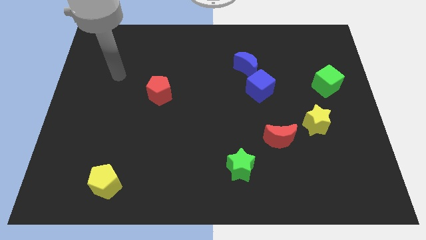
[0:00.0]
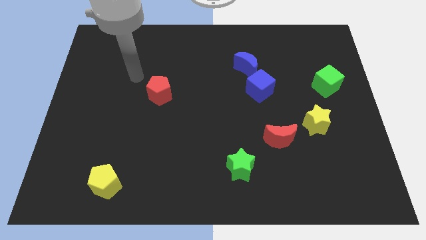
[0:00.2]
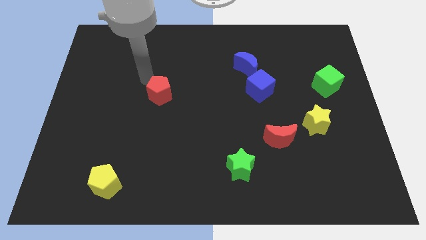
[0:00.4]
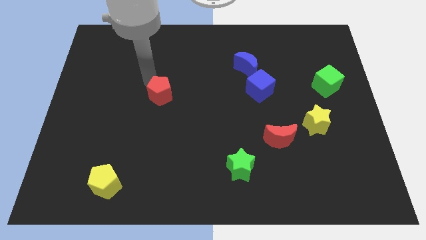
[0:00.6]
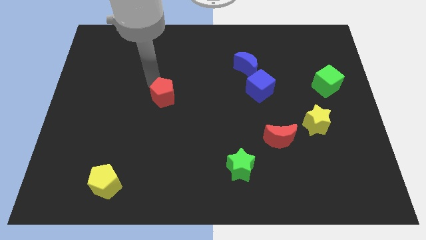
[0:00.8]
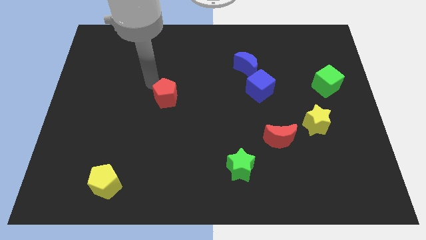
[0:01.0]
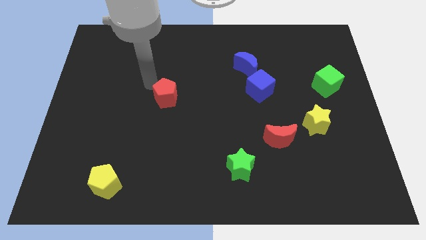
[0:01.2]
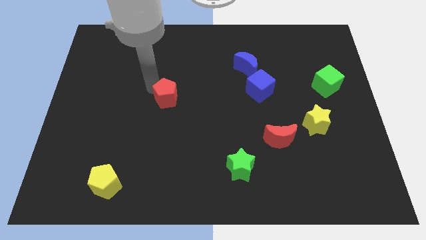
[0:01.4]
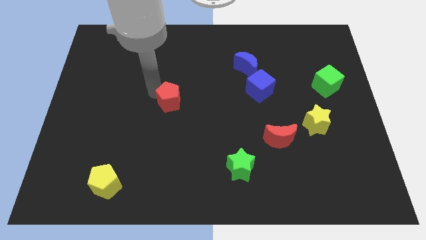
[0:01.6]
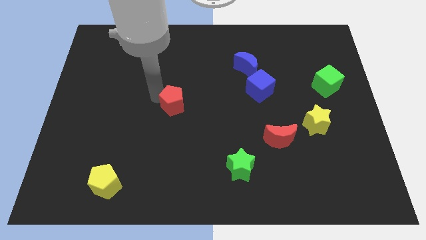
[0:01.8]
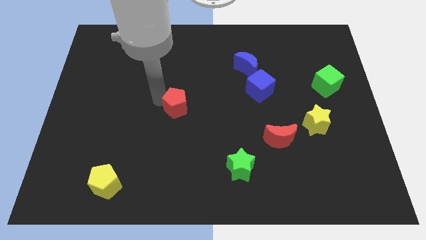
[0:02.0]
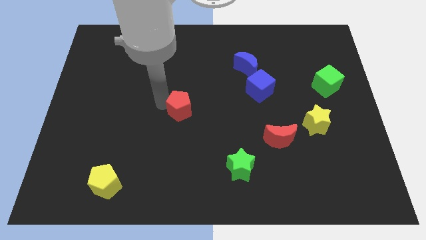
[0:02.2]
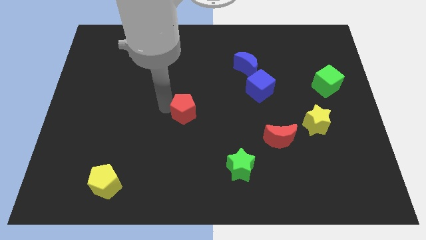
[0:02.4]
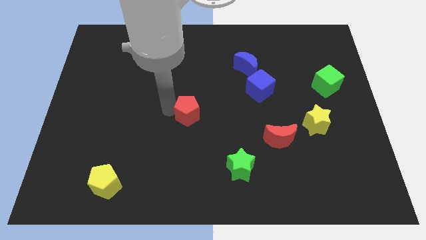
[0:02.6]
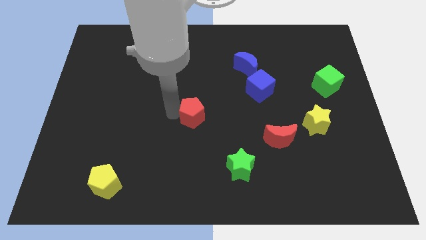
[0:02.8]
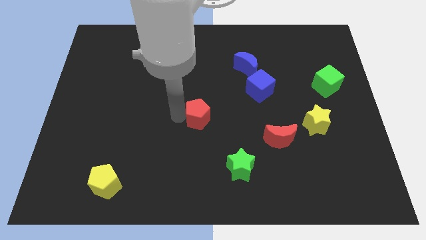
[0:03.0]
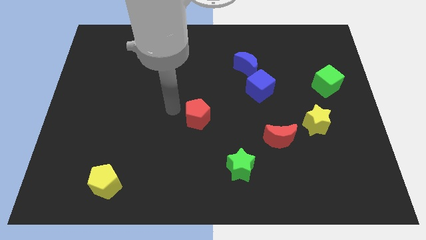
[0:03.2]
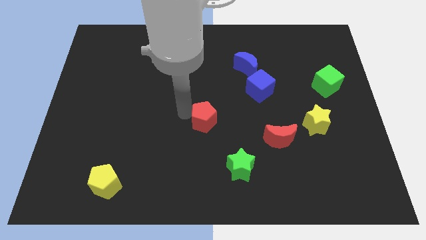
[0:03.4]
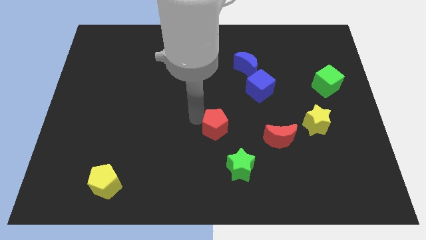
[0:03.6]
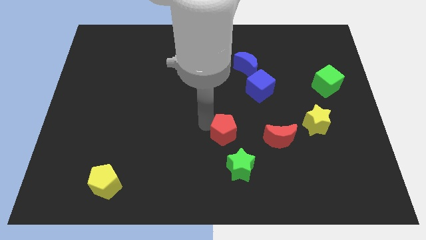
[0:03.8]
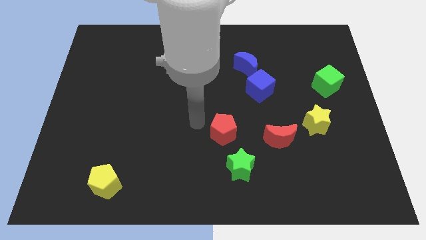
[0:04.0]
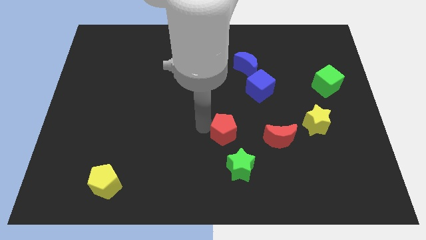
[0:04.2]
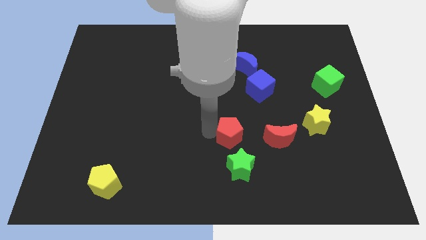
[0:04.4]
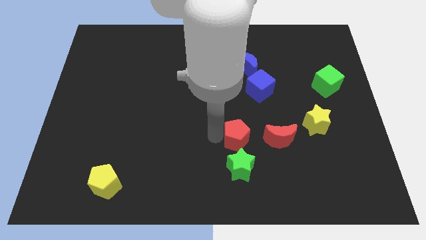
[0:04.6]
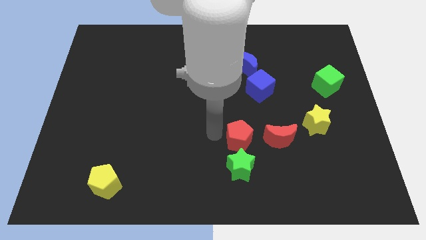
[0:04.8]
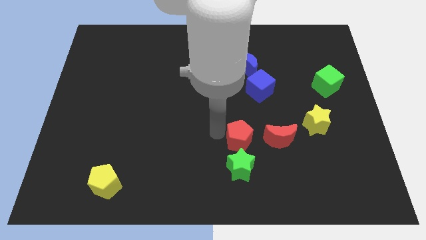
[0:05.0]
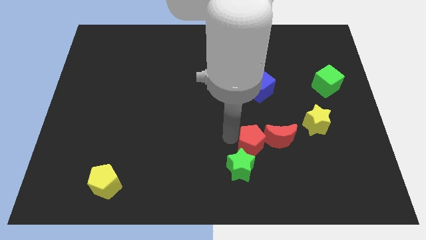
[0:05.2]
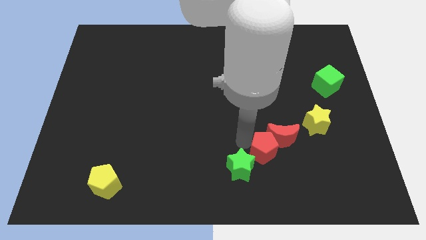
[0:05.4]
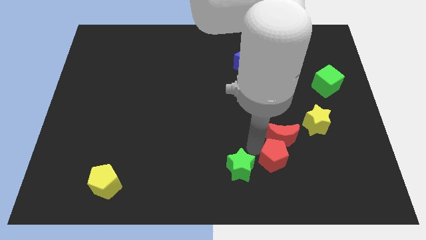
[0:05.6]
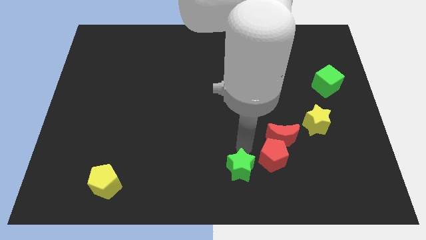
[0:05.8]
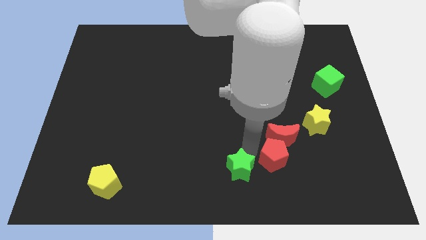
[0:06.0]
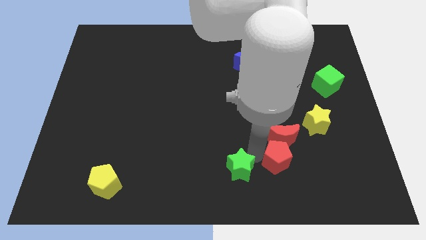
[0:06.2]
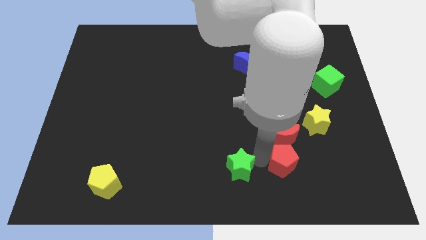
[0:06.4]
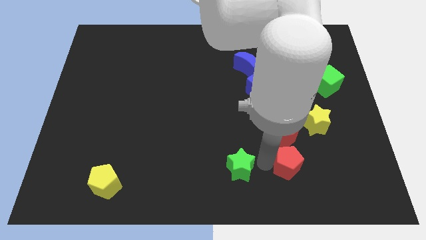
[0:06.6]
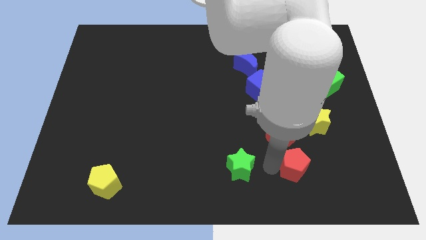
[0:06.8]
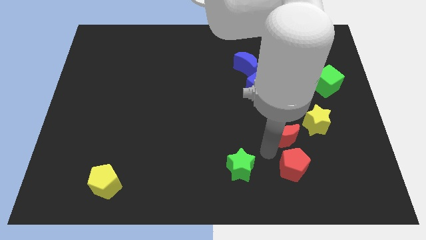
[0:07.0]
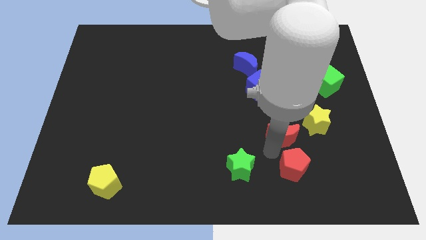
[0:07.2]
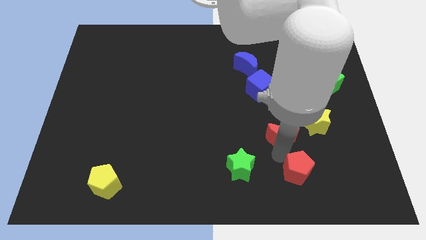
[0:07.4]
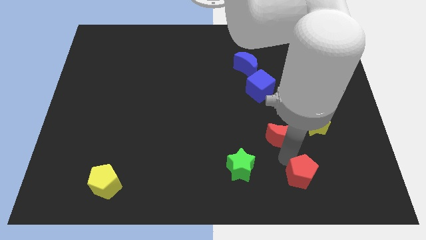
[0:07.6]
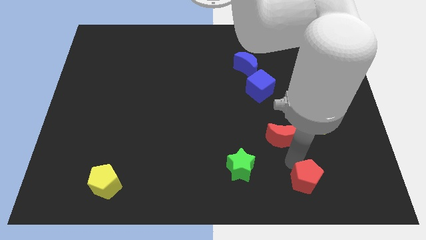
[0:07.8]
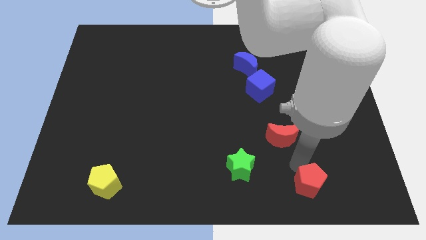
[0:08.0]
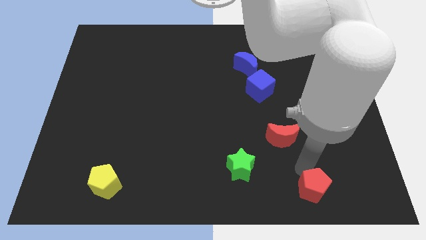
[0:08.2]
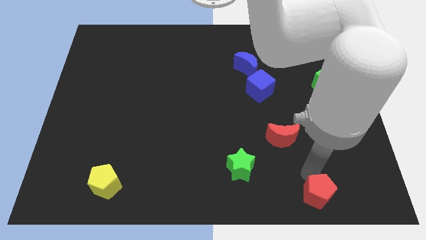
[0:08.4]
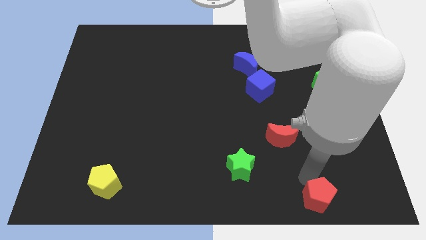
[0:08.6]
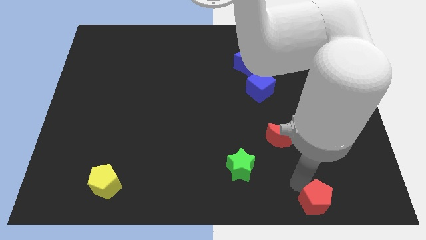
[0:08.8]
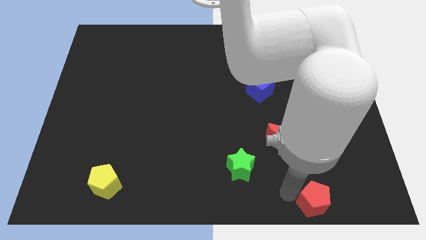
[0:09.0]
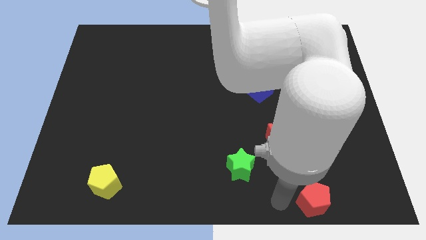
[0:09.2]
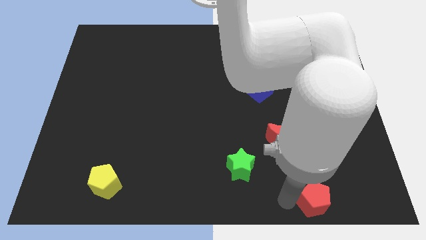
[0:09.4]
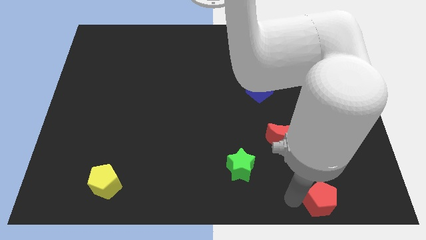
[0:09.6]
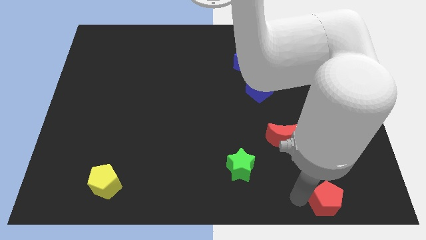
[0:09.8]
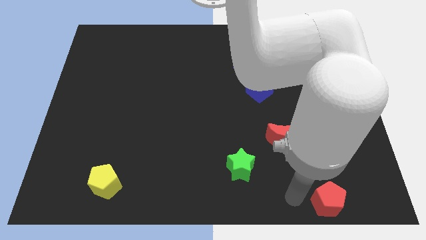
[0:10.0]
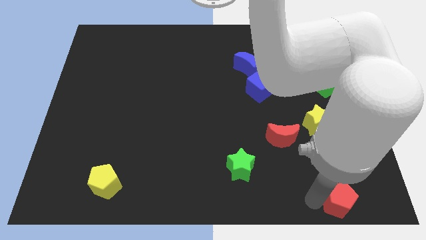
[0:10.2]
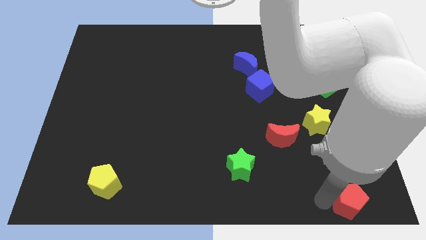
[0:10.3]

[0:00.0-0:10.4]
move the red pentagon to the bottom right
